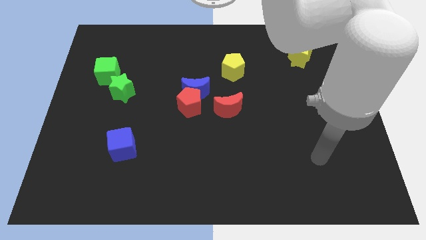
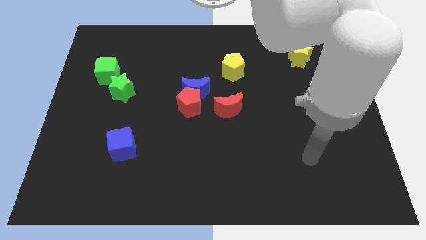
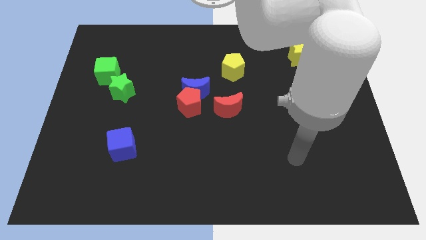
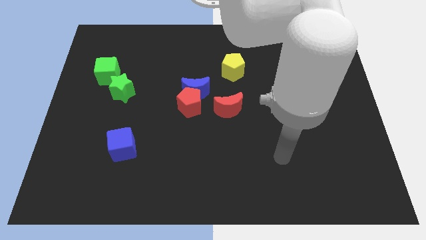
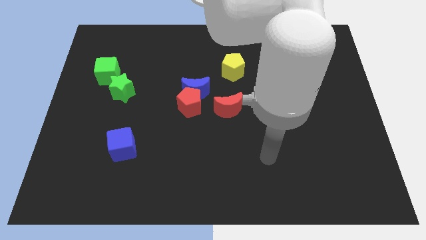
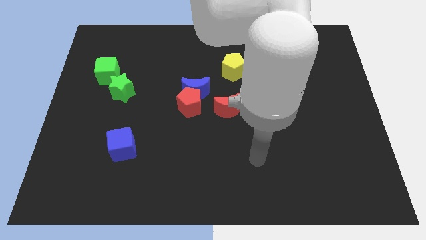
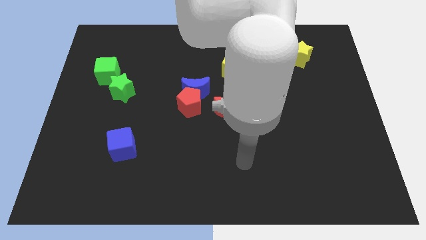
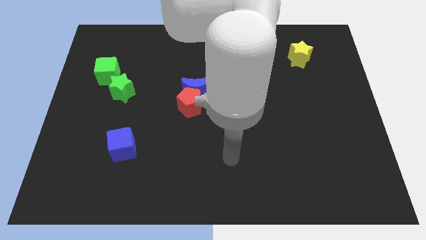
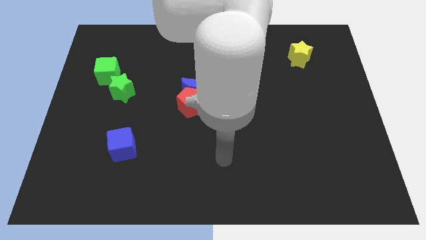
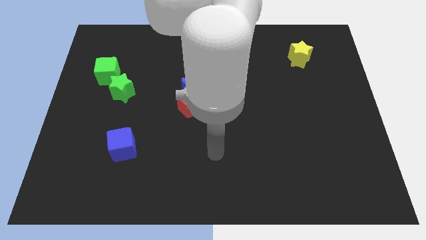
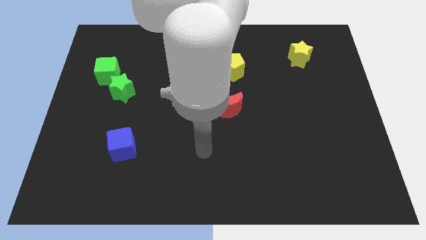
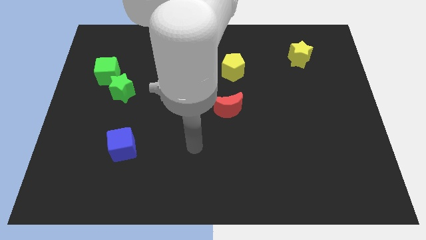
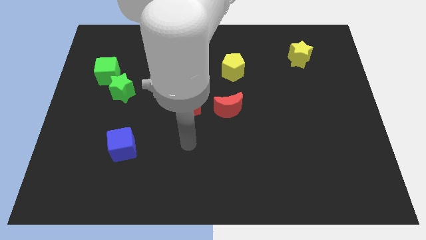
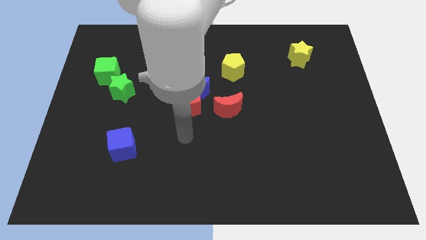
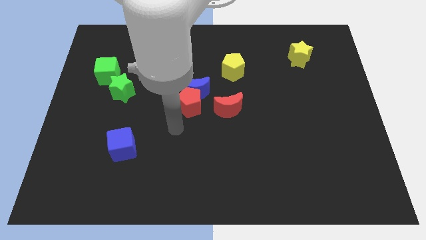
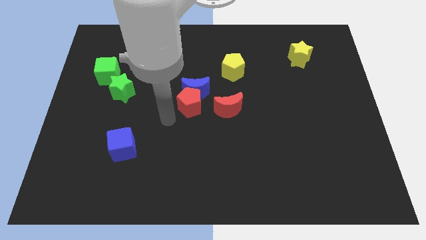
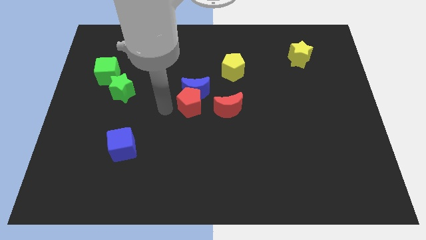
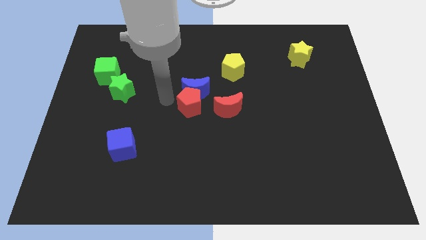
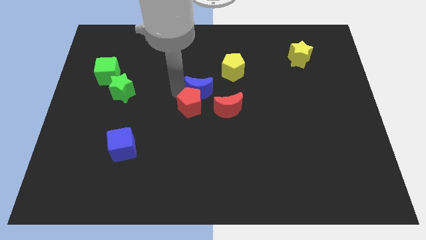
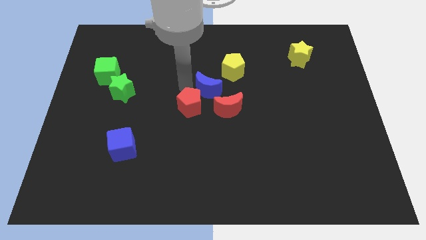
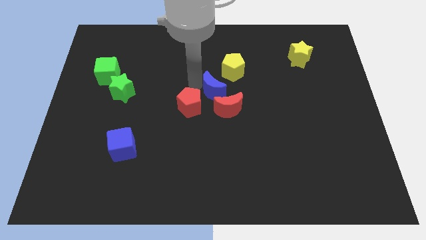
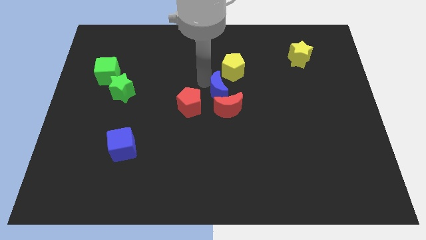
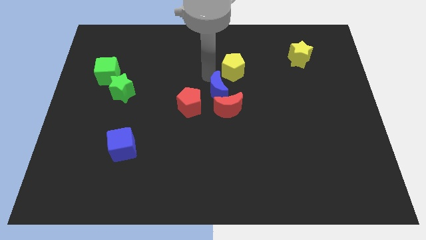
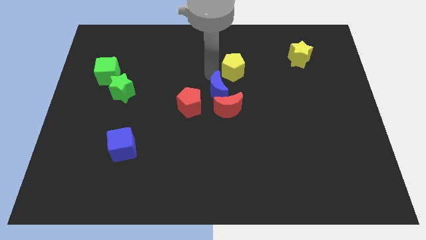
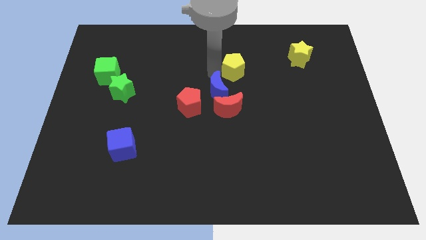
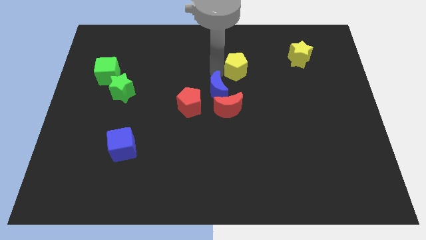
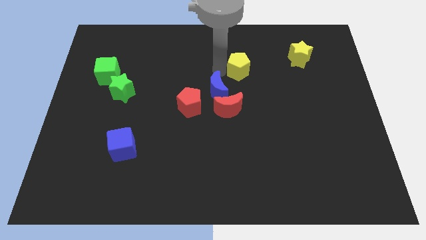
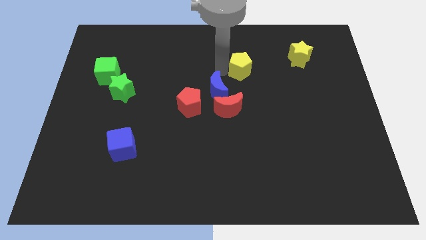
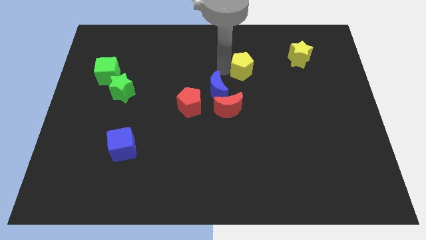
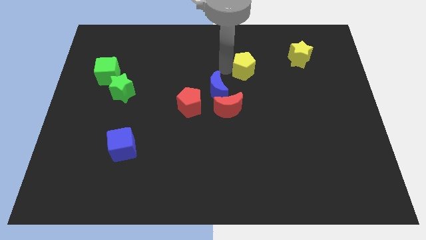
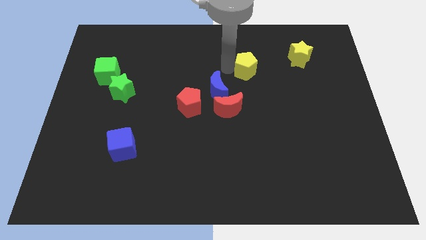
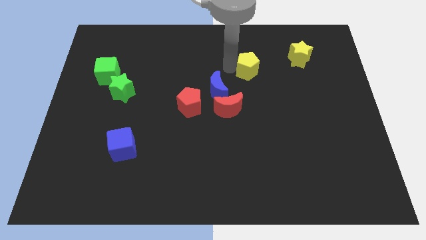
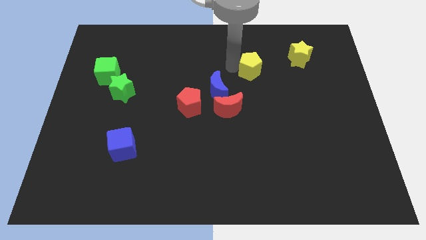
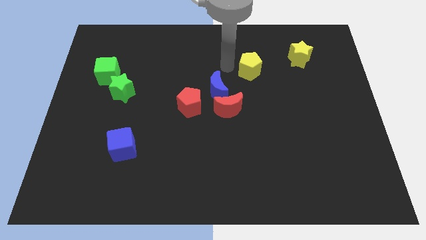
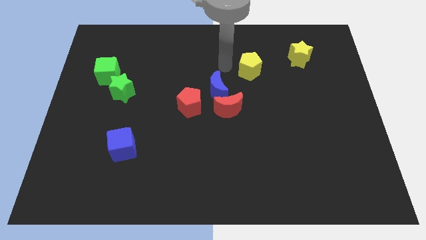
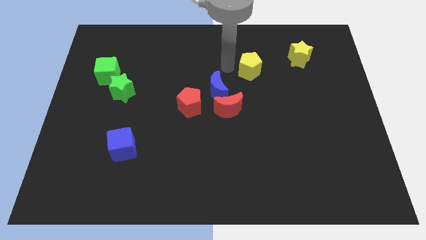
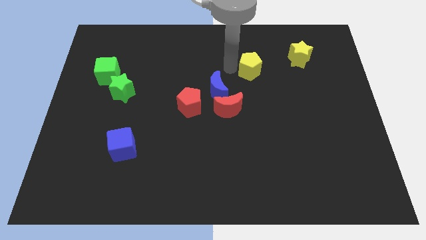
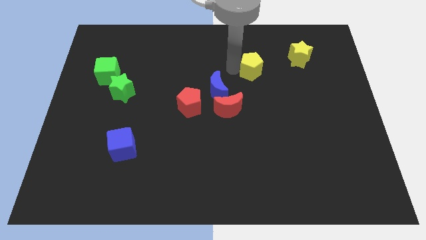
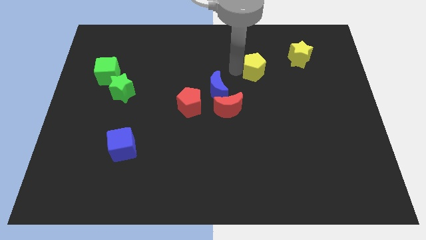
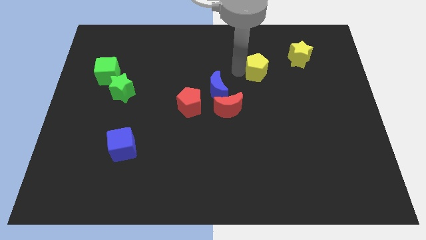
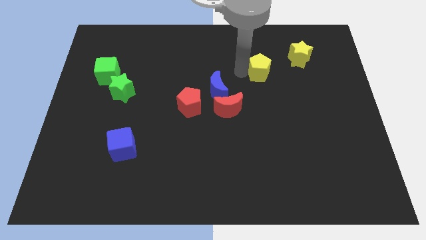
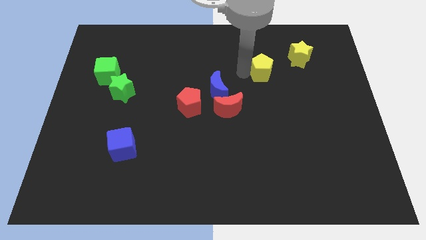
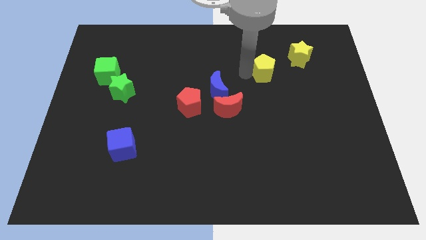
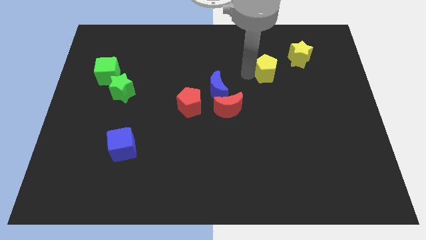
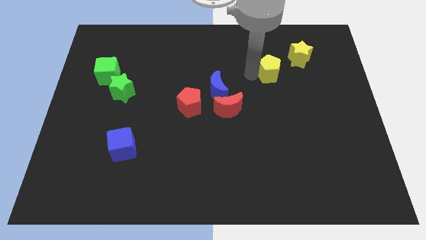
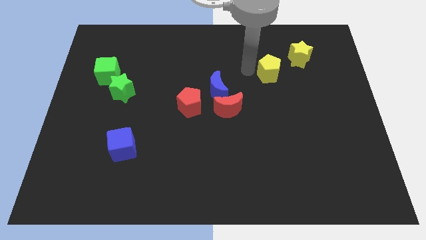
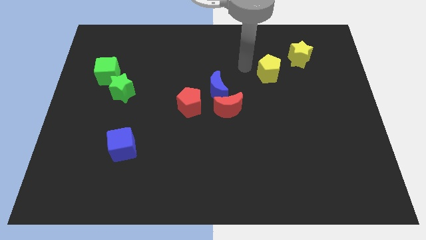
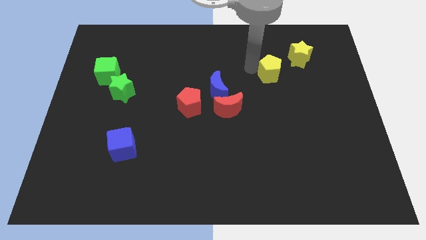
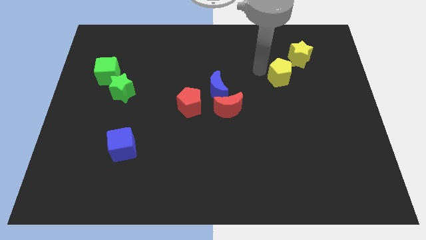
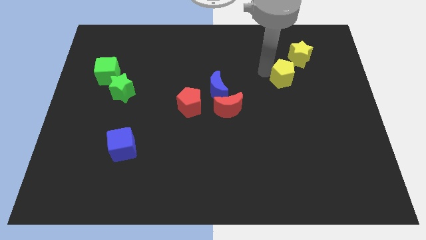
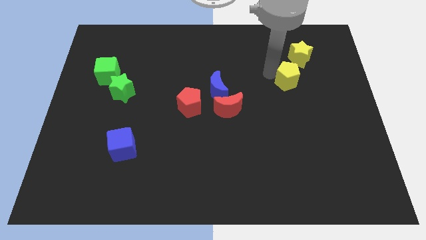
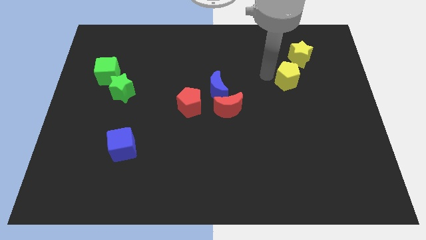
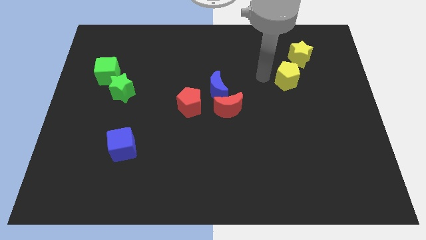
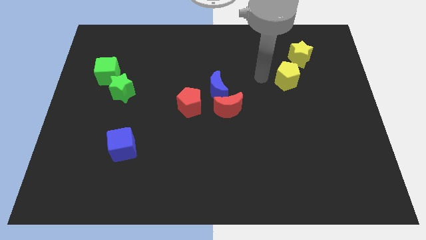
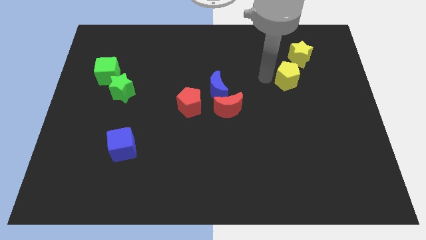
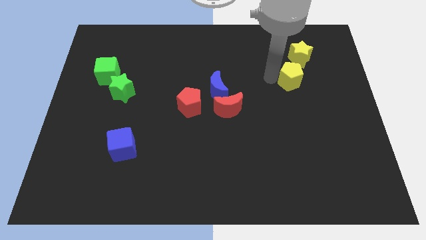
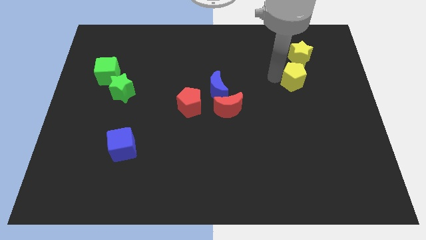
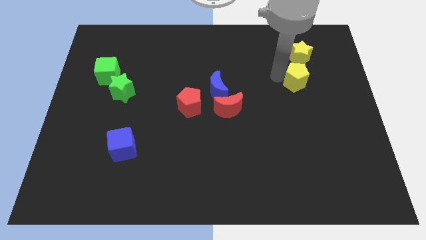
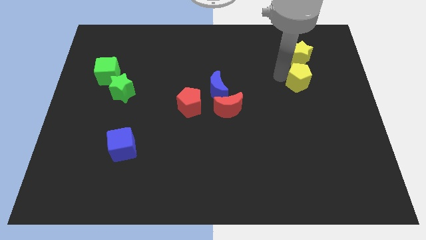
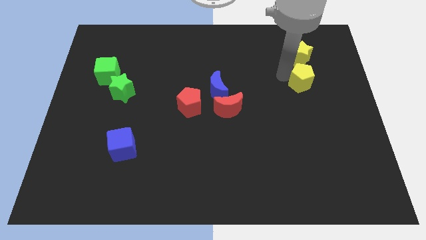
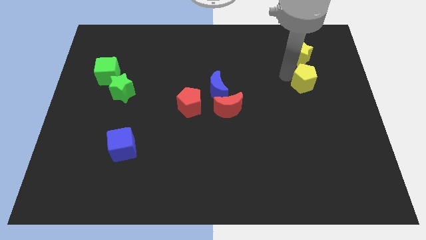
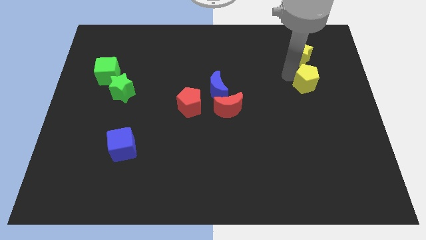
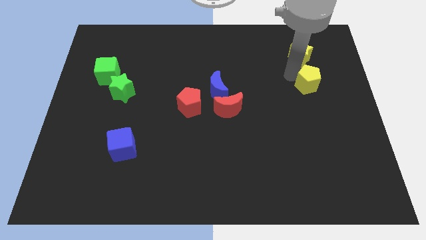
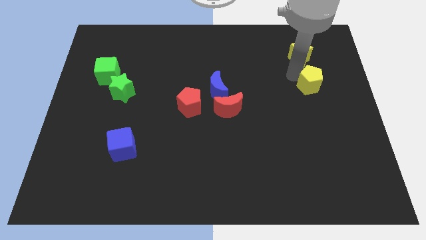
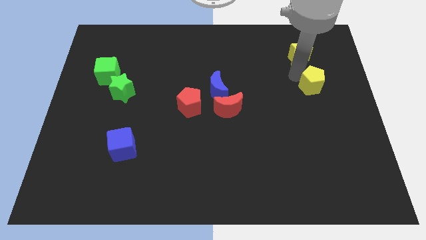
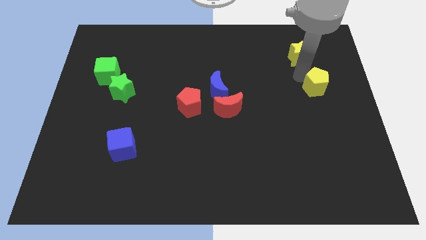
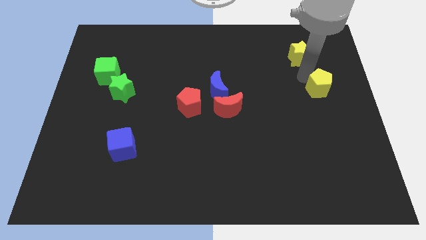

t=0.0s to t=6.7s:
put the yellow pentagon to the right side
